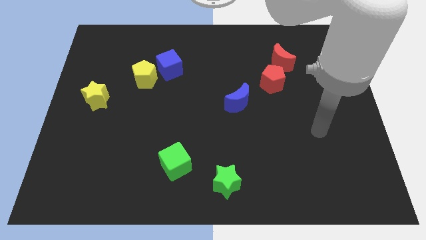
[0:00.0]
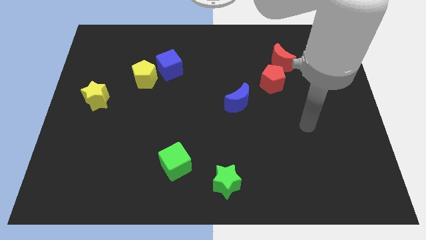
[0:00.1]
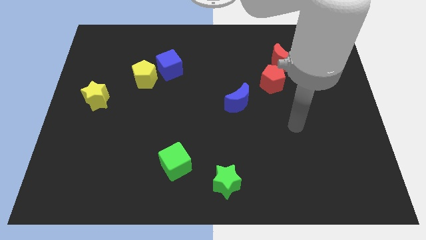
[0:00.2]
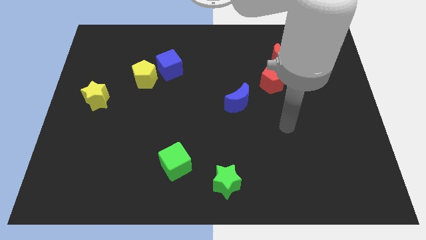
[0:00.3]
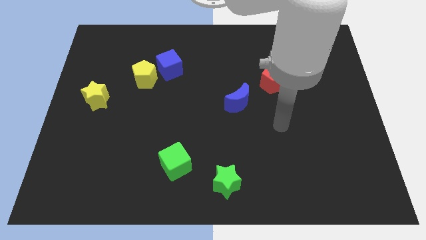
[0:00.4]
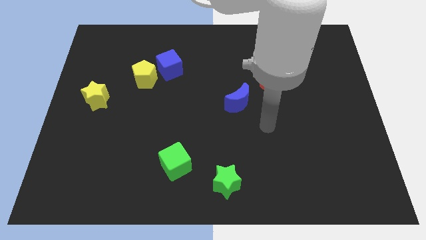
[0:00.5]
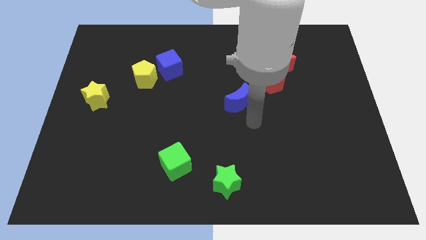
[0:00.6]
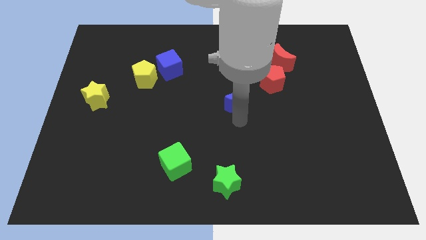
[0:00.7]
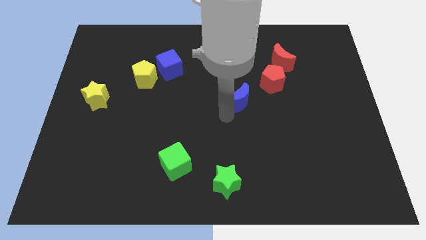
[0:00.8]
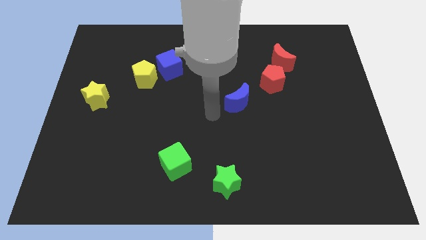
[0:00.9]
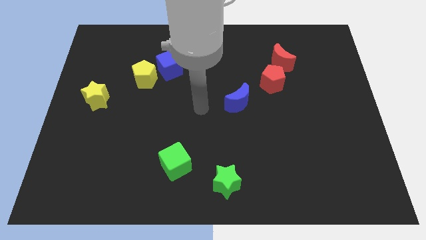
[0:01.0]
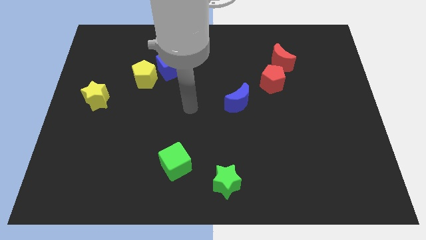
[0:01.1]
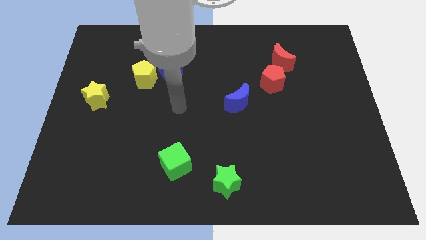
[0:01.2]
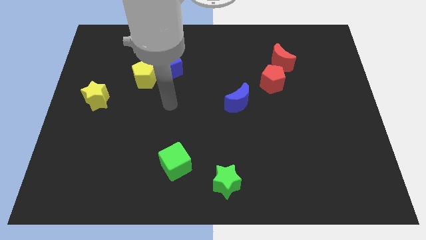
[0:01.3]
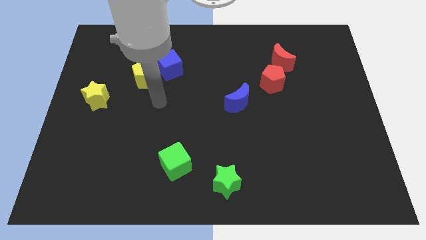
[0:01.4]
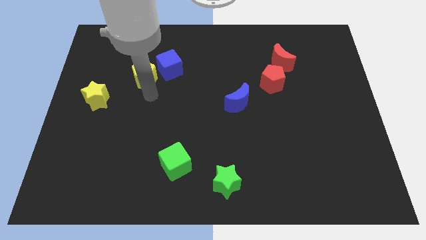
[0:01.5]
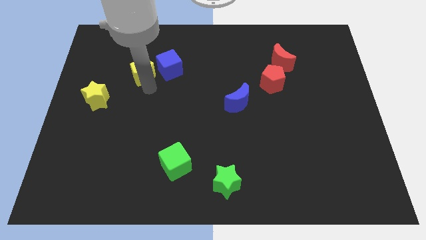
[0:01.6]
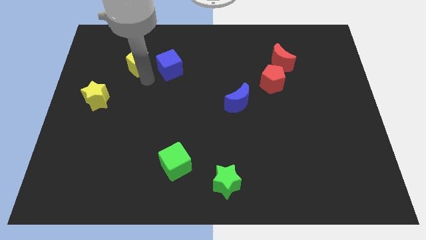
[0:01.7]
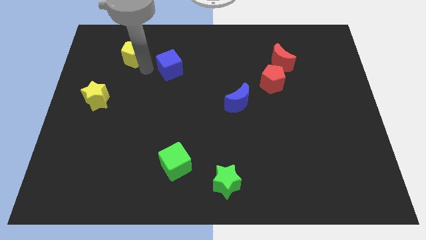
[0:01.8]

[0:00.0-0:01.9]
separate the blue cube from the yellow pentagon

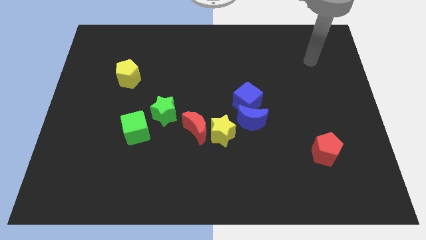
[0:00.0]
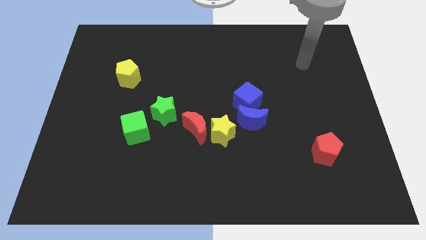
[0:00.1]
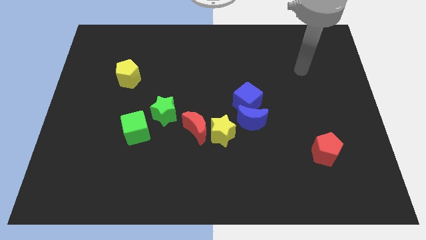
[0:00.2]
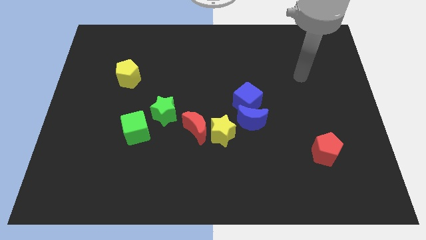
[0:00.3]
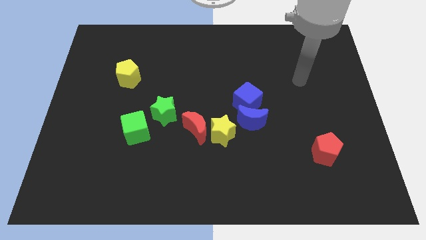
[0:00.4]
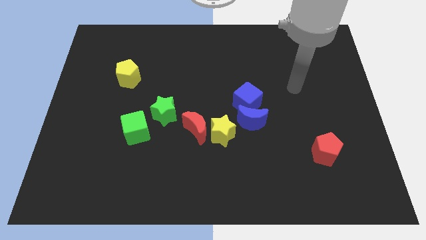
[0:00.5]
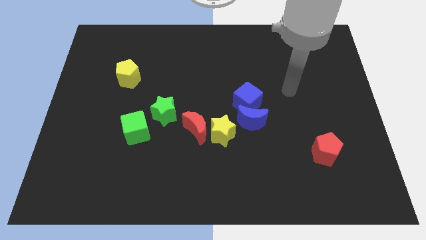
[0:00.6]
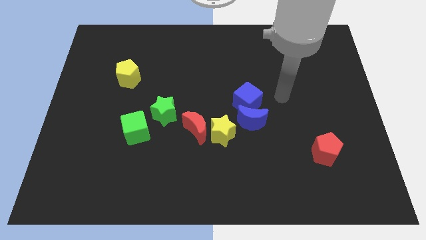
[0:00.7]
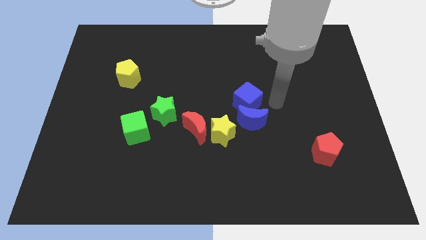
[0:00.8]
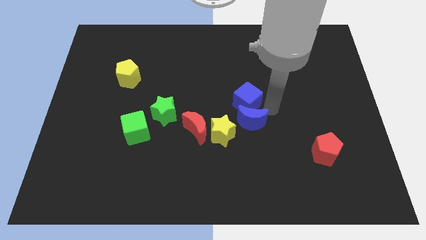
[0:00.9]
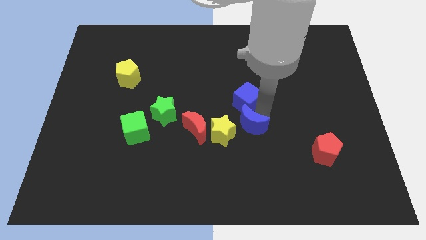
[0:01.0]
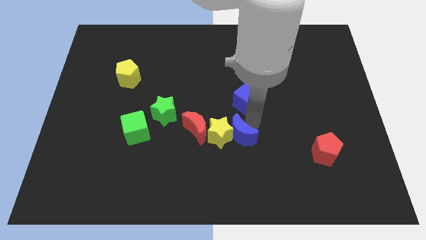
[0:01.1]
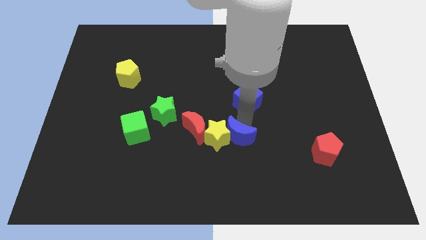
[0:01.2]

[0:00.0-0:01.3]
separate the blue cube from the blue moon

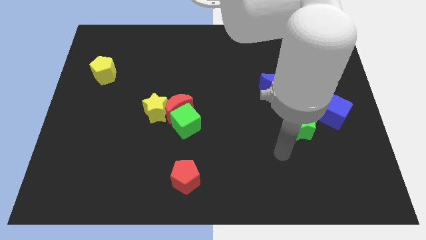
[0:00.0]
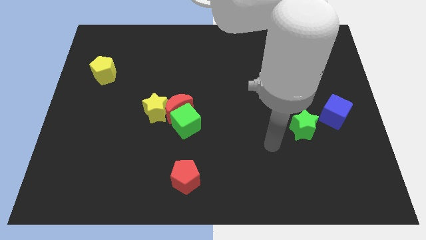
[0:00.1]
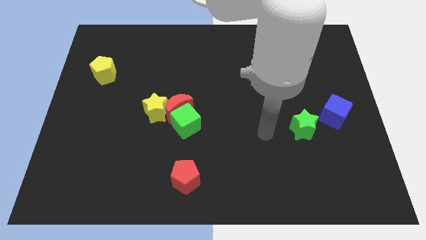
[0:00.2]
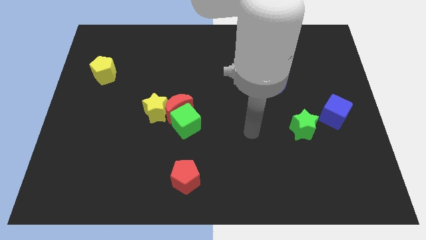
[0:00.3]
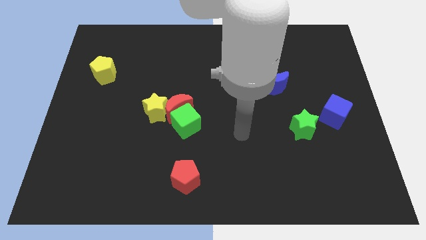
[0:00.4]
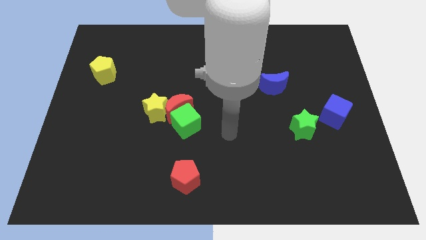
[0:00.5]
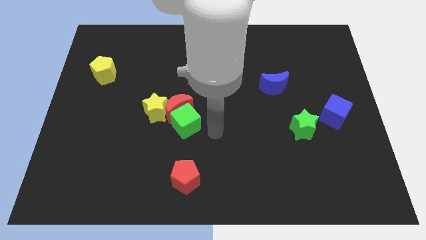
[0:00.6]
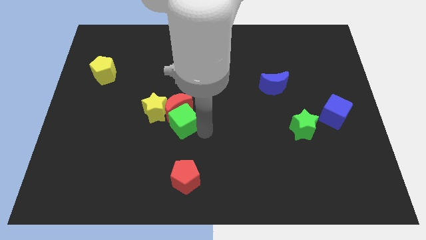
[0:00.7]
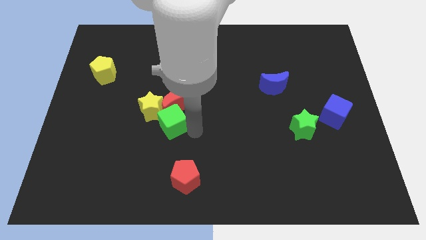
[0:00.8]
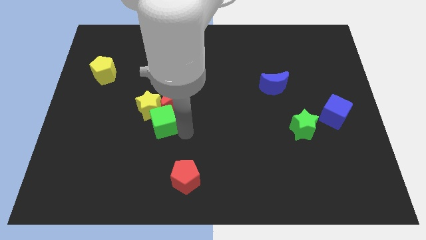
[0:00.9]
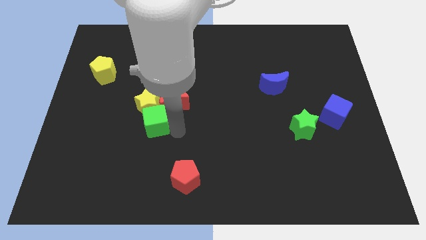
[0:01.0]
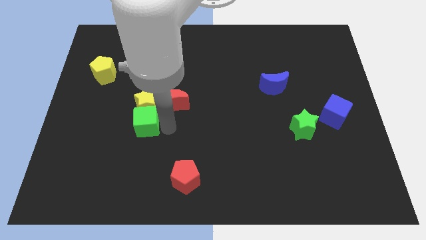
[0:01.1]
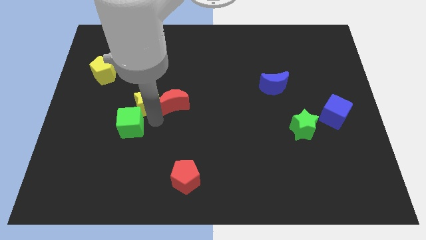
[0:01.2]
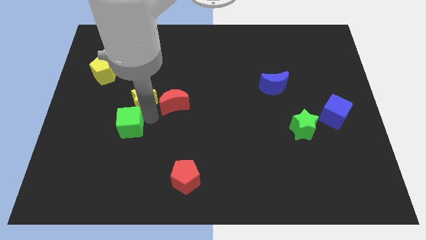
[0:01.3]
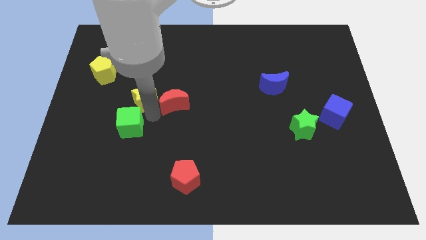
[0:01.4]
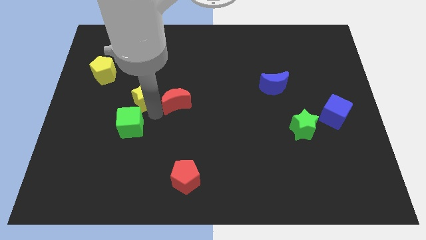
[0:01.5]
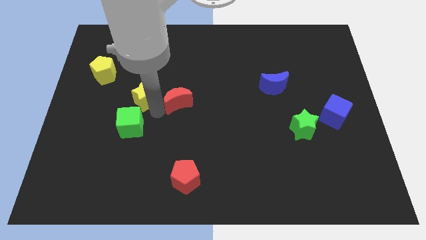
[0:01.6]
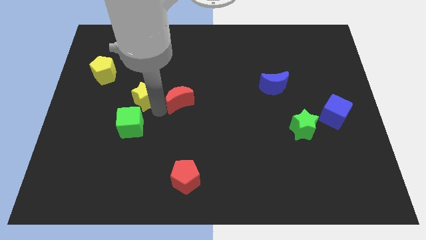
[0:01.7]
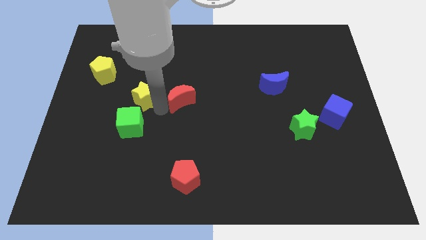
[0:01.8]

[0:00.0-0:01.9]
move the red moon away from the green cube and yellow star

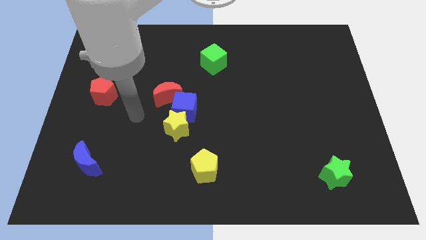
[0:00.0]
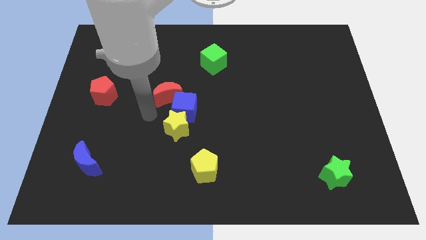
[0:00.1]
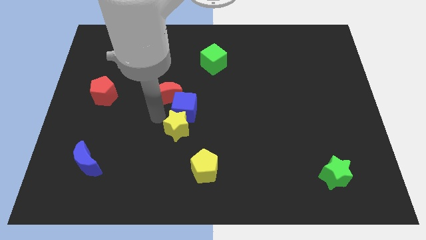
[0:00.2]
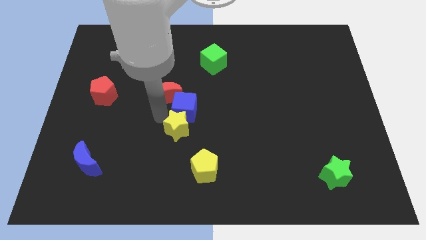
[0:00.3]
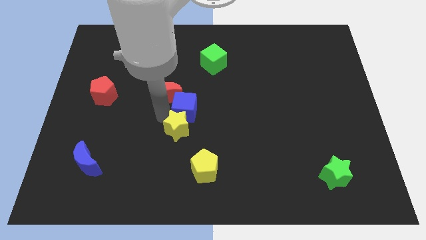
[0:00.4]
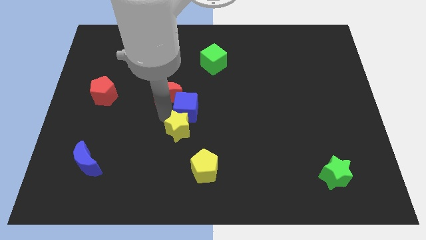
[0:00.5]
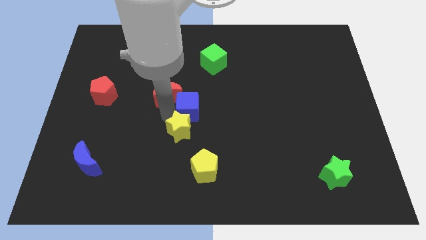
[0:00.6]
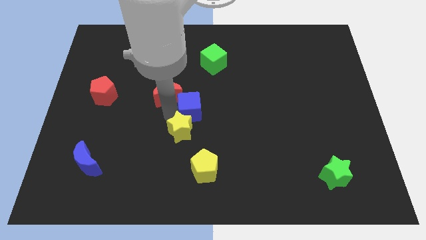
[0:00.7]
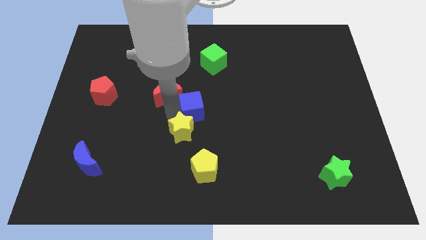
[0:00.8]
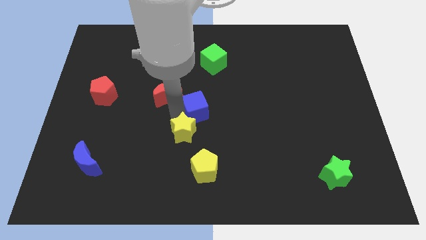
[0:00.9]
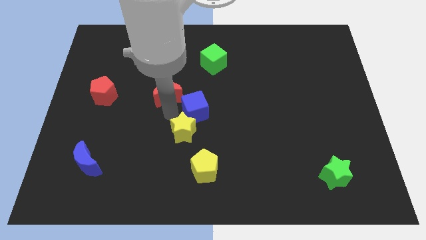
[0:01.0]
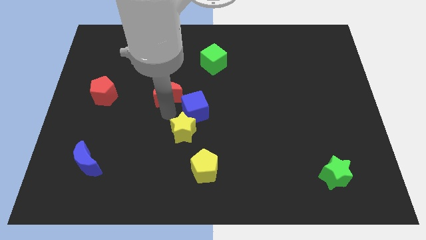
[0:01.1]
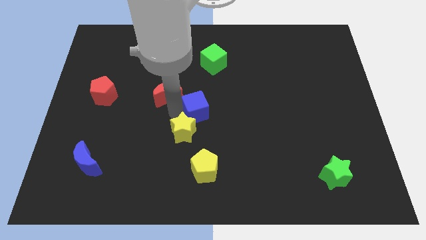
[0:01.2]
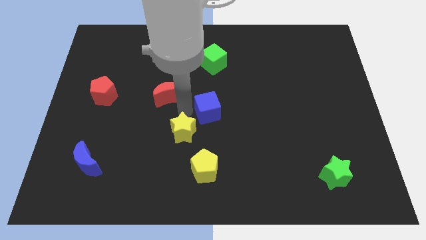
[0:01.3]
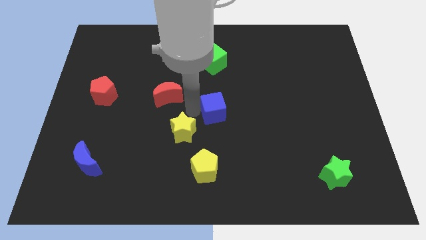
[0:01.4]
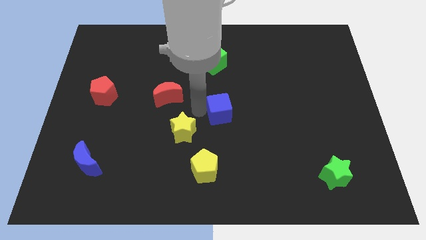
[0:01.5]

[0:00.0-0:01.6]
separate the blue cube from the yellow star and red moon

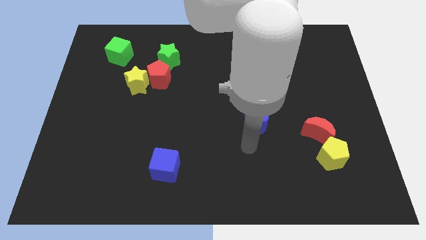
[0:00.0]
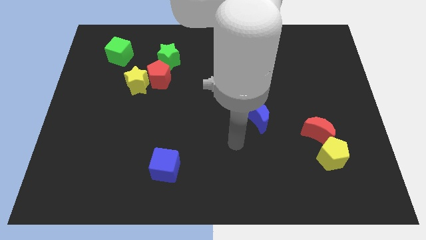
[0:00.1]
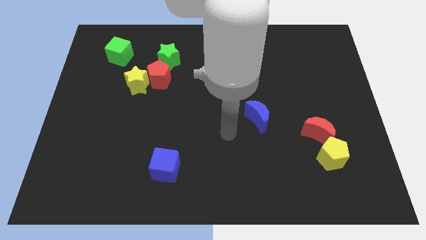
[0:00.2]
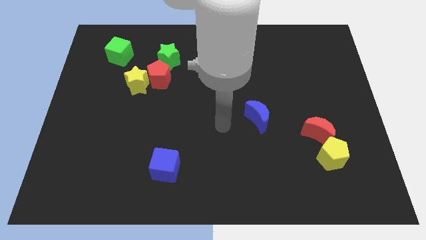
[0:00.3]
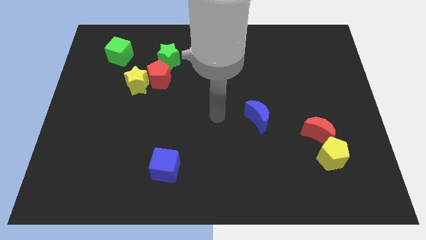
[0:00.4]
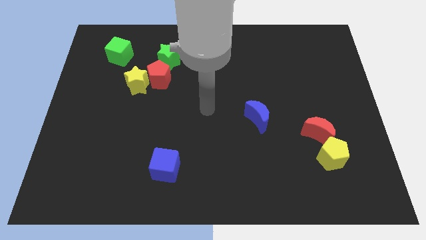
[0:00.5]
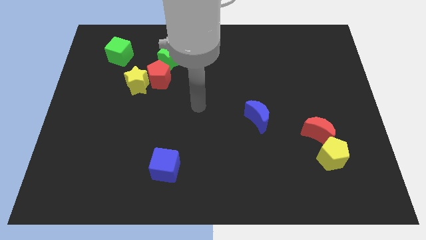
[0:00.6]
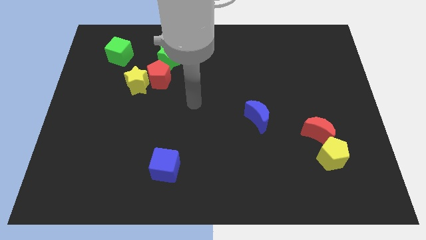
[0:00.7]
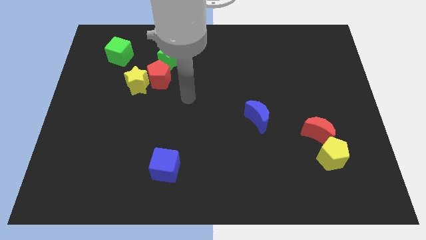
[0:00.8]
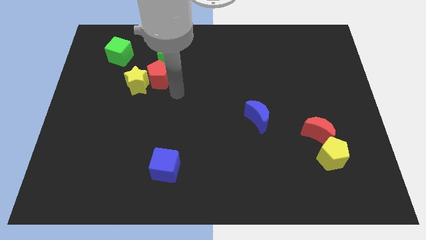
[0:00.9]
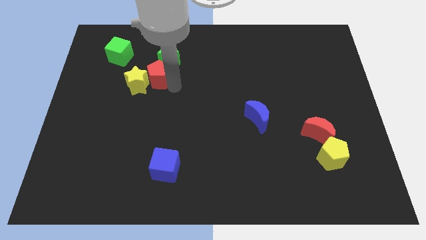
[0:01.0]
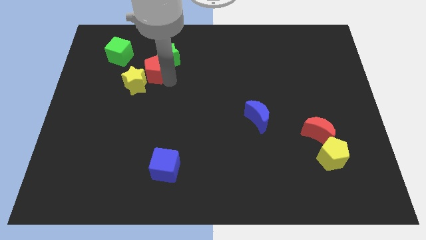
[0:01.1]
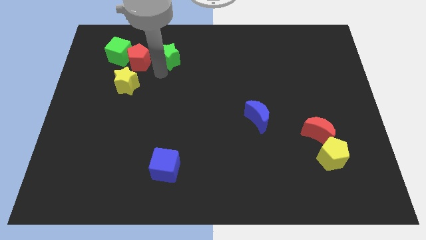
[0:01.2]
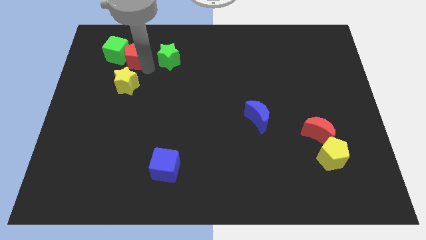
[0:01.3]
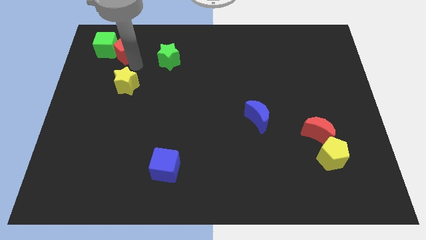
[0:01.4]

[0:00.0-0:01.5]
move the yellow star away from the red pentagon

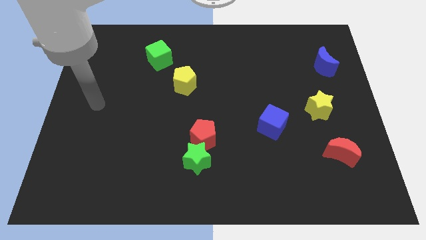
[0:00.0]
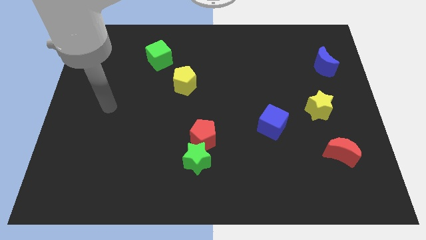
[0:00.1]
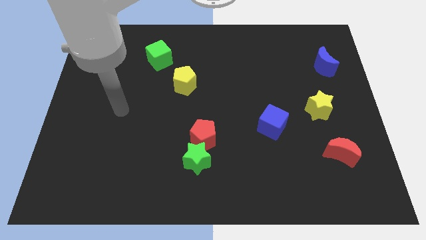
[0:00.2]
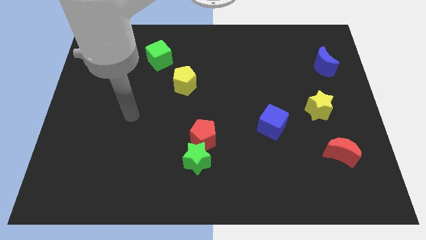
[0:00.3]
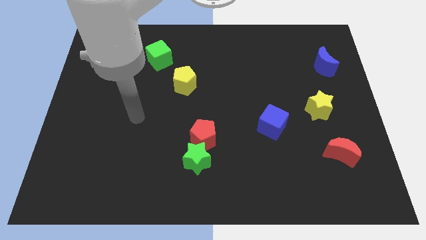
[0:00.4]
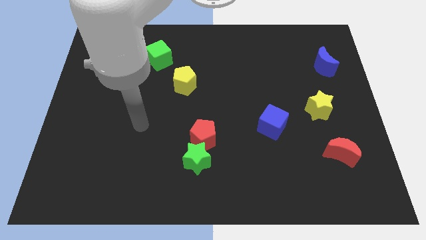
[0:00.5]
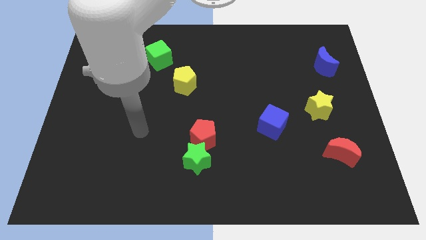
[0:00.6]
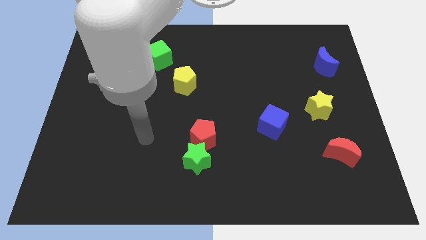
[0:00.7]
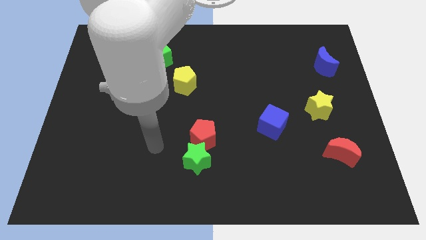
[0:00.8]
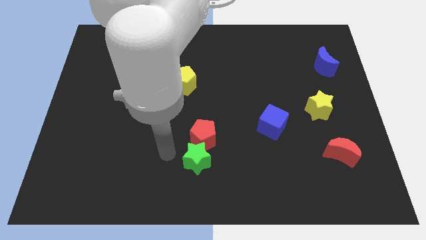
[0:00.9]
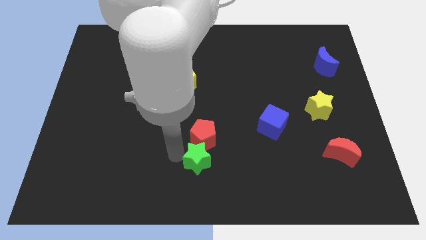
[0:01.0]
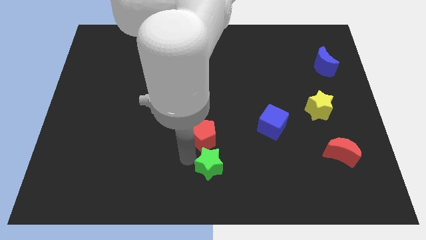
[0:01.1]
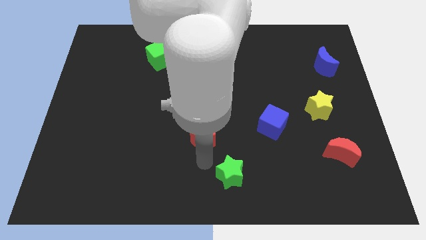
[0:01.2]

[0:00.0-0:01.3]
move the red pentagon away from the green star
